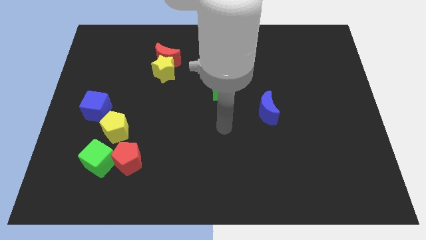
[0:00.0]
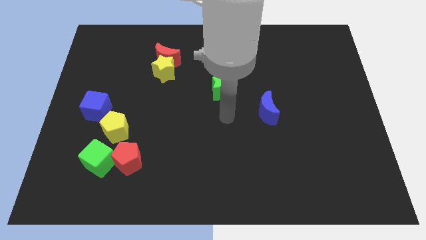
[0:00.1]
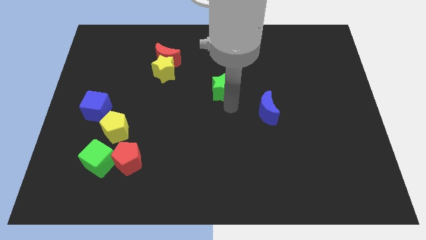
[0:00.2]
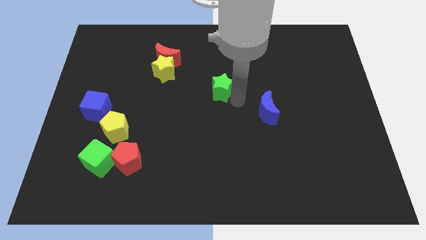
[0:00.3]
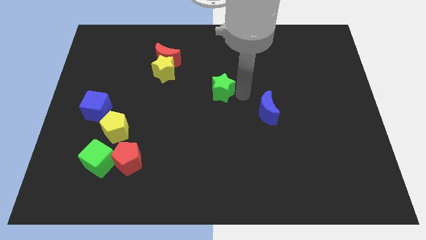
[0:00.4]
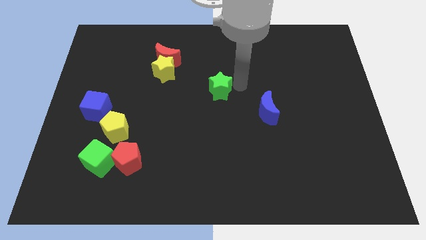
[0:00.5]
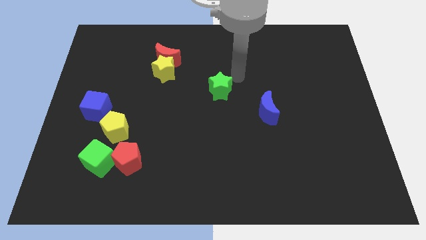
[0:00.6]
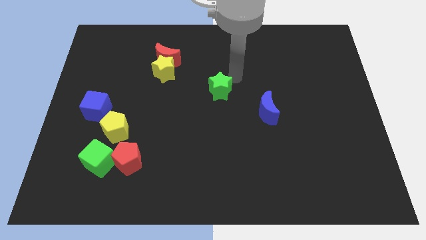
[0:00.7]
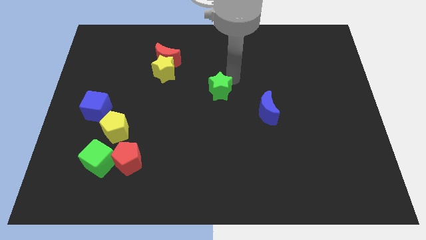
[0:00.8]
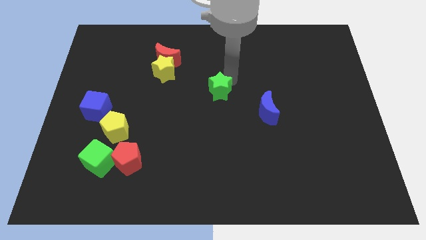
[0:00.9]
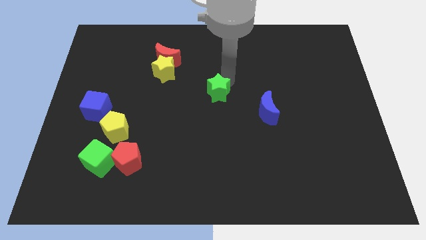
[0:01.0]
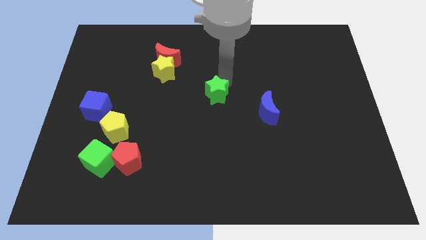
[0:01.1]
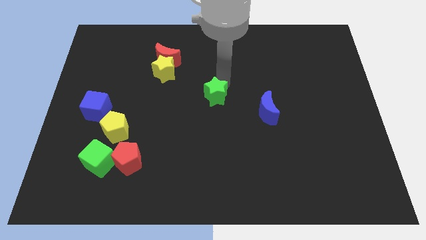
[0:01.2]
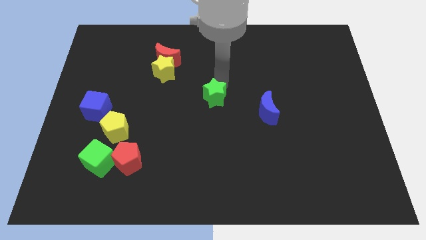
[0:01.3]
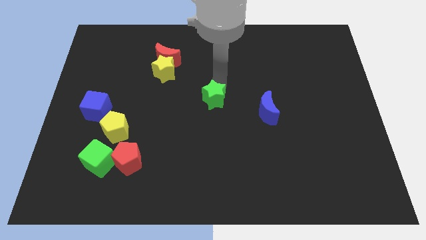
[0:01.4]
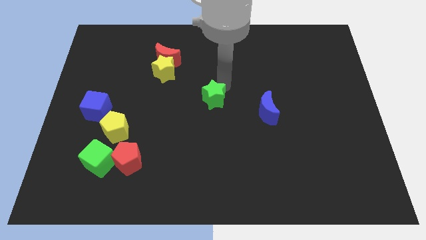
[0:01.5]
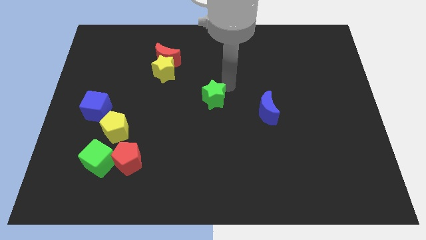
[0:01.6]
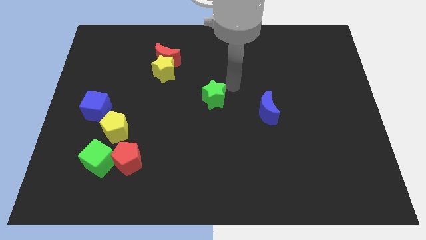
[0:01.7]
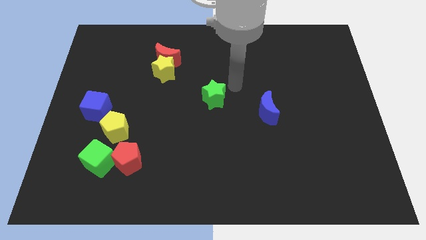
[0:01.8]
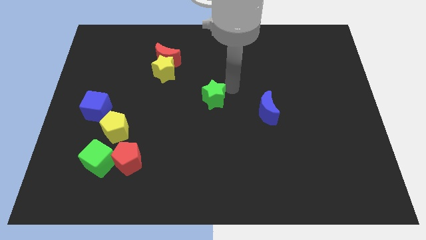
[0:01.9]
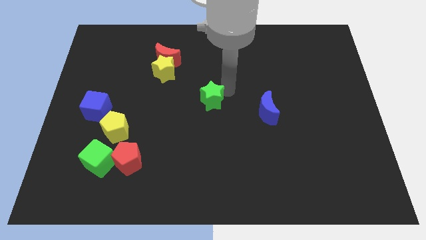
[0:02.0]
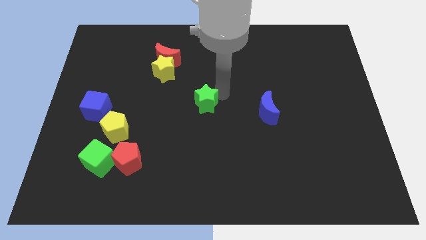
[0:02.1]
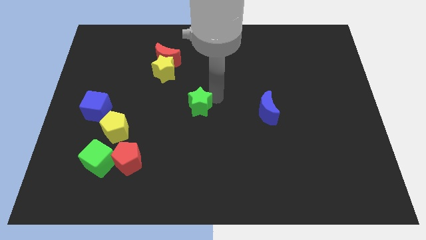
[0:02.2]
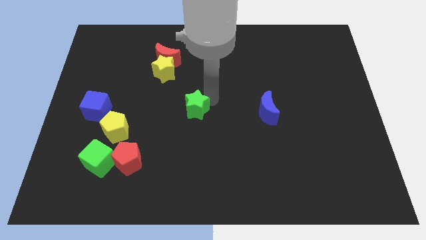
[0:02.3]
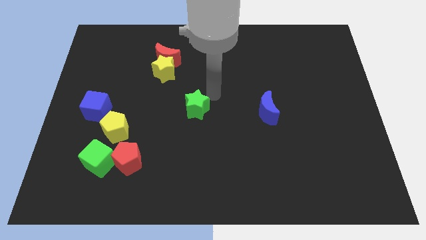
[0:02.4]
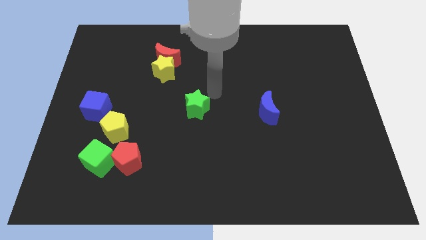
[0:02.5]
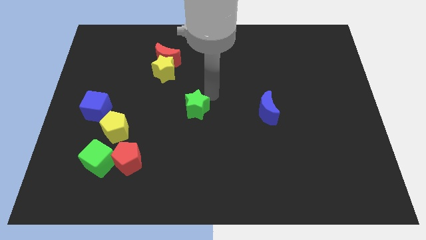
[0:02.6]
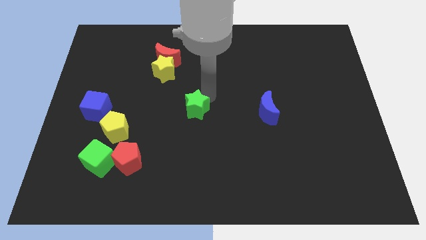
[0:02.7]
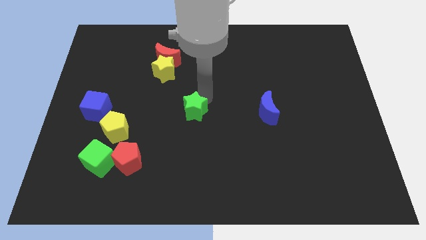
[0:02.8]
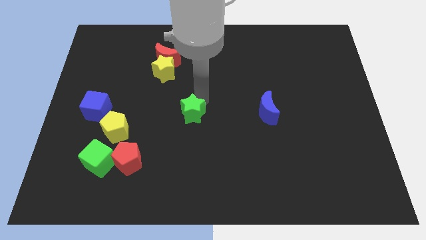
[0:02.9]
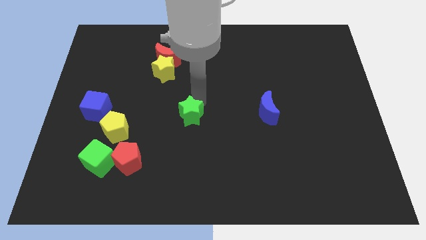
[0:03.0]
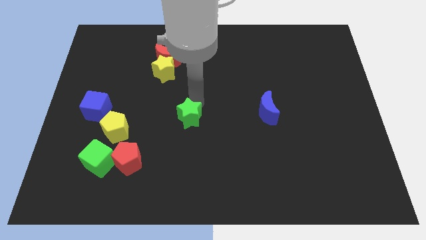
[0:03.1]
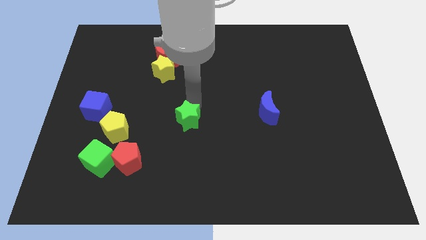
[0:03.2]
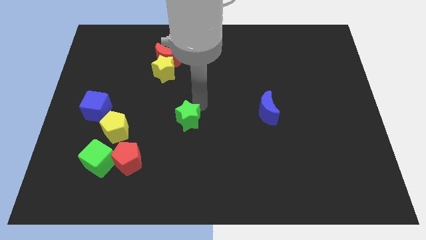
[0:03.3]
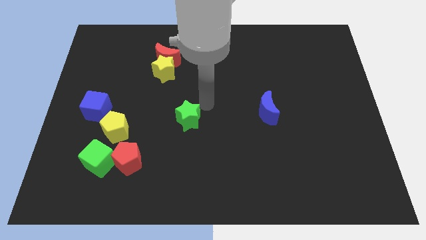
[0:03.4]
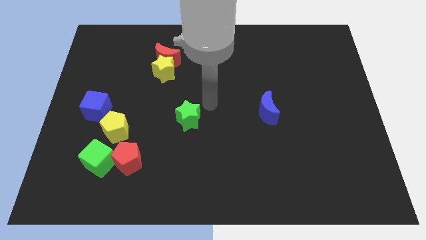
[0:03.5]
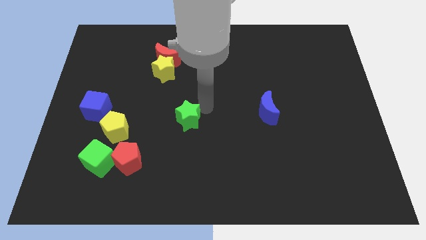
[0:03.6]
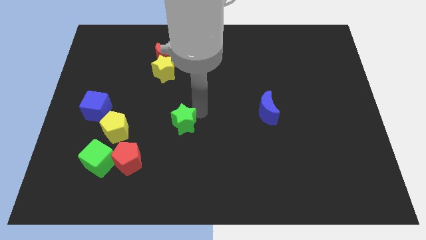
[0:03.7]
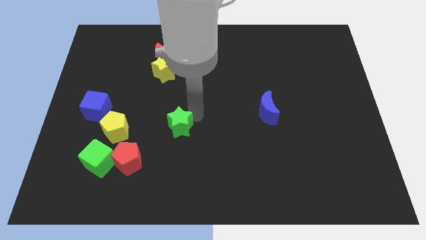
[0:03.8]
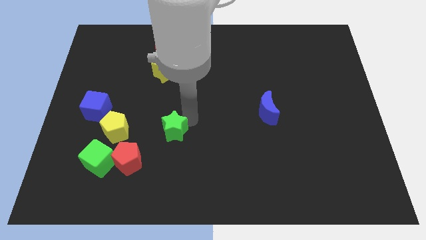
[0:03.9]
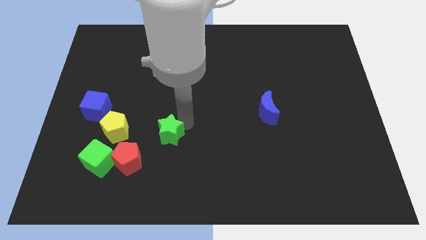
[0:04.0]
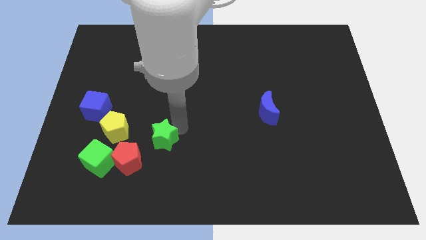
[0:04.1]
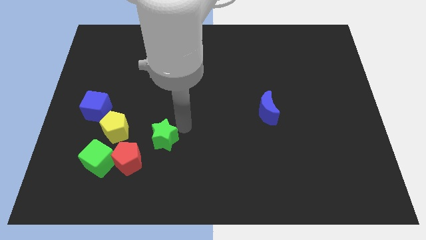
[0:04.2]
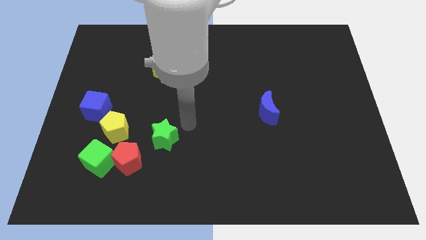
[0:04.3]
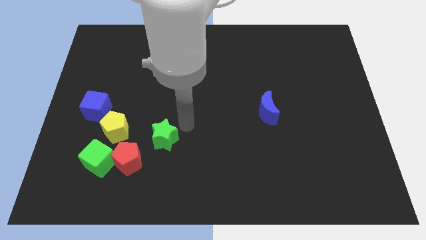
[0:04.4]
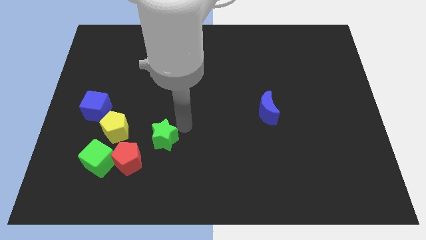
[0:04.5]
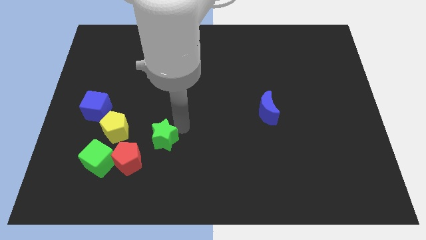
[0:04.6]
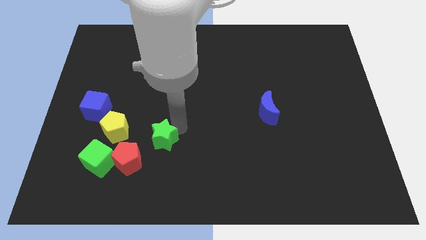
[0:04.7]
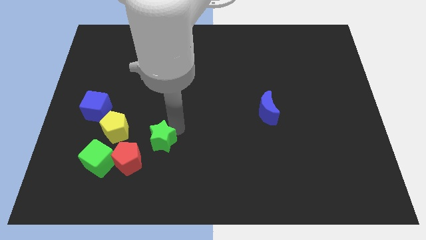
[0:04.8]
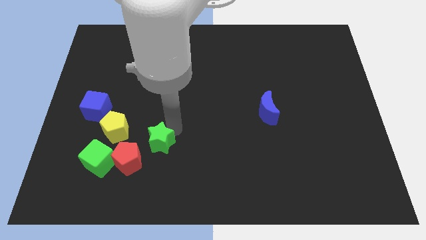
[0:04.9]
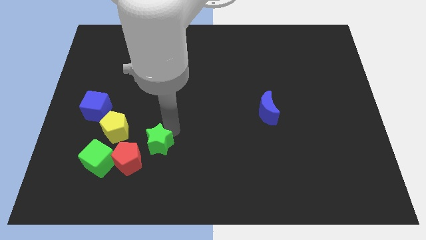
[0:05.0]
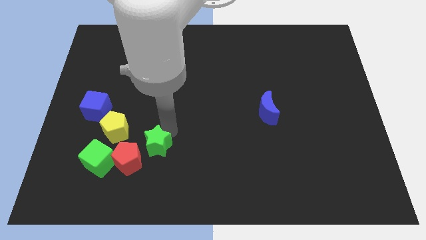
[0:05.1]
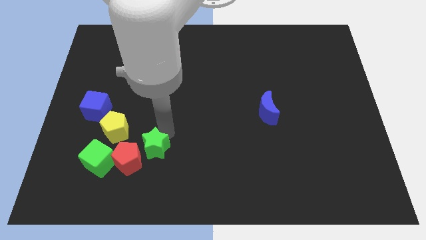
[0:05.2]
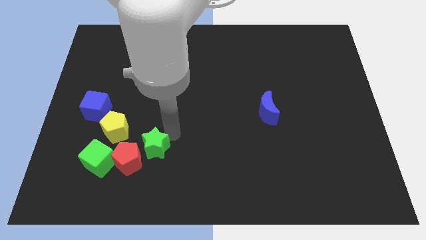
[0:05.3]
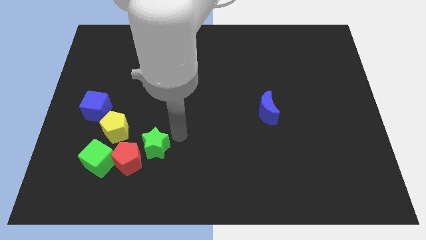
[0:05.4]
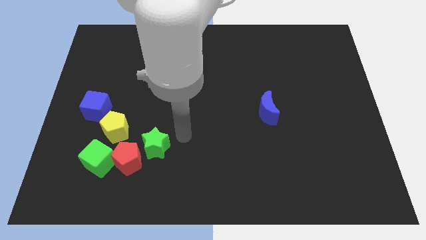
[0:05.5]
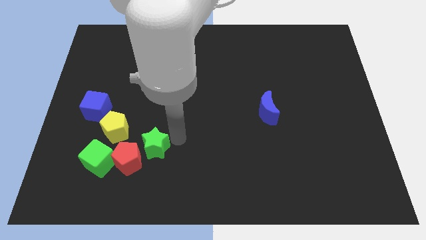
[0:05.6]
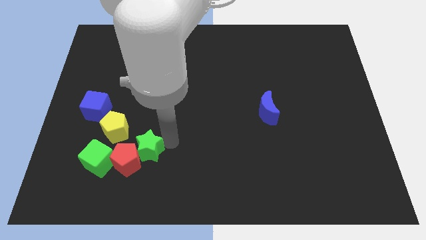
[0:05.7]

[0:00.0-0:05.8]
slide the green star to the red pentagon

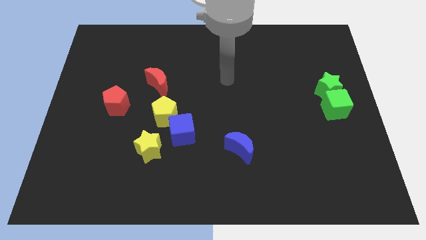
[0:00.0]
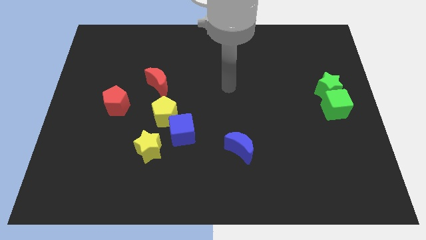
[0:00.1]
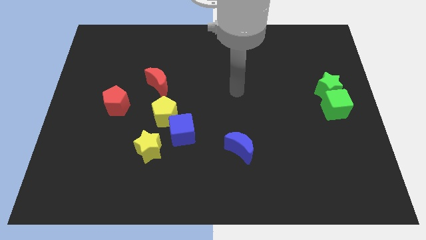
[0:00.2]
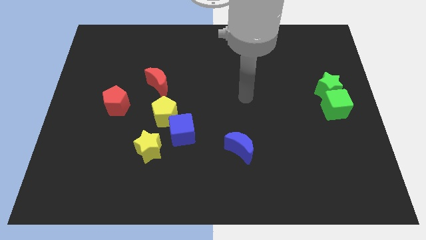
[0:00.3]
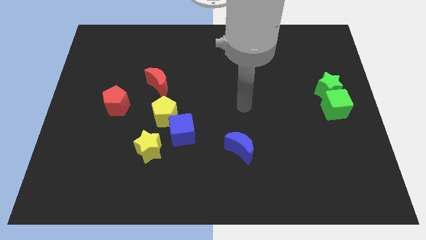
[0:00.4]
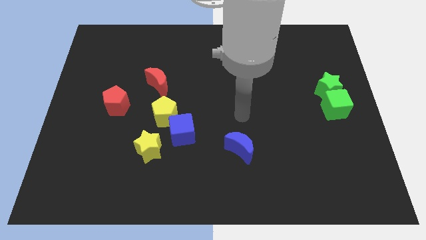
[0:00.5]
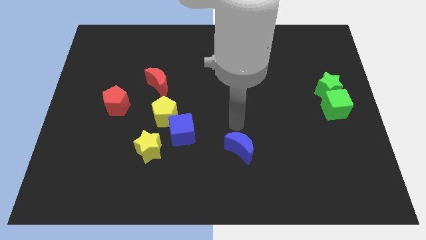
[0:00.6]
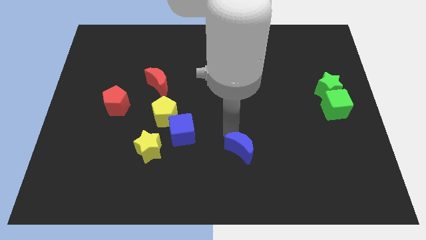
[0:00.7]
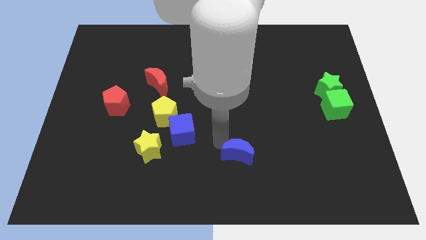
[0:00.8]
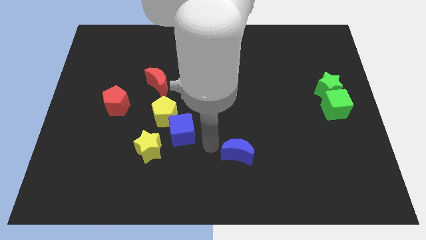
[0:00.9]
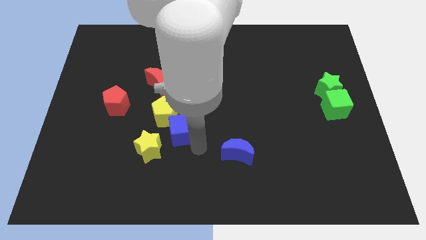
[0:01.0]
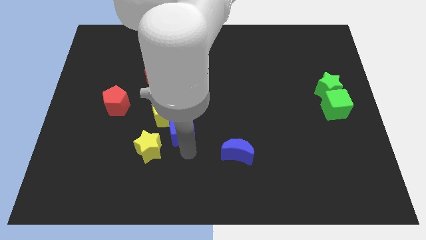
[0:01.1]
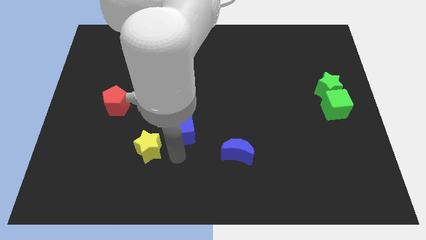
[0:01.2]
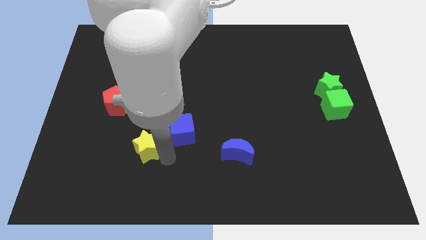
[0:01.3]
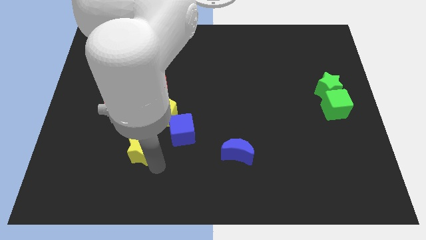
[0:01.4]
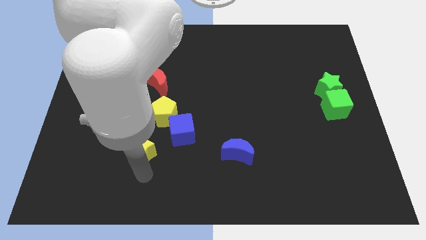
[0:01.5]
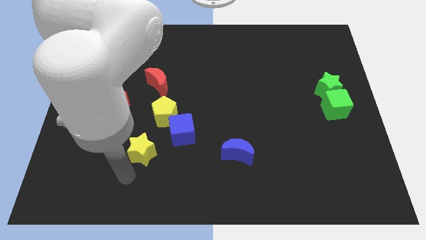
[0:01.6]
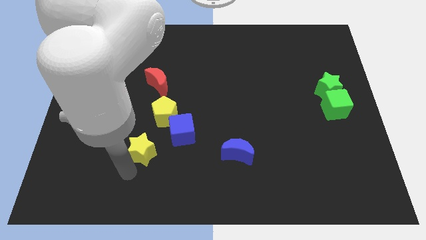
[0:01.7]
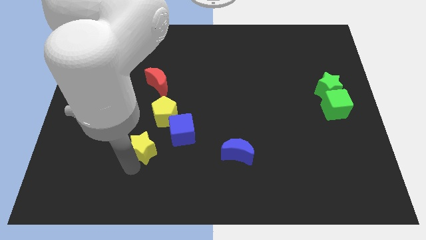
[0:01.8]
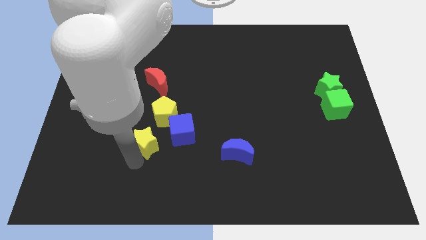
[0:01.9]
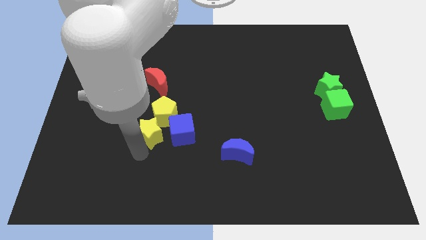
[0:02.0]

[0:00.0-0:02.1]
put the yellow star towards the yellow pentagon
